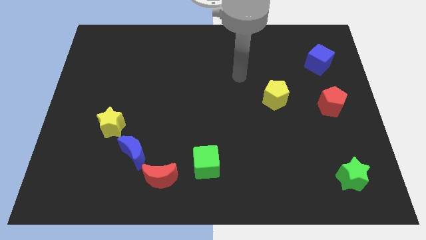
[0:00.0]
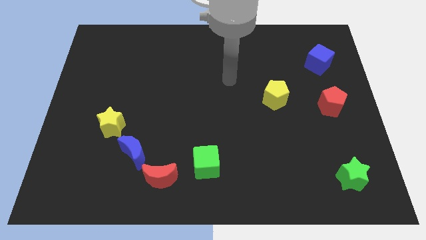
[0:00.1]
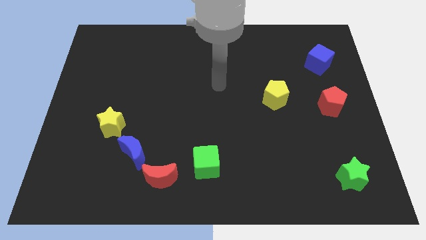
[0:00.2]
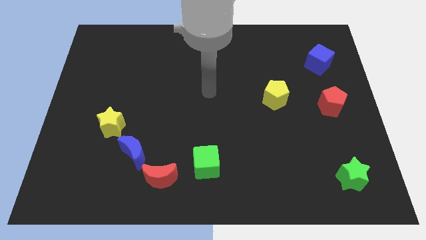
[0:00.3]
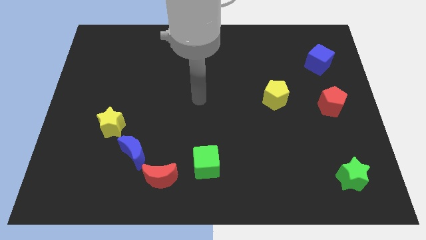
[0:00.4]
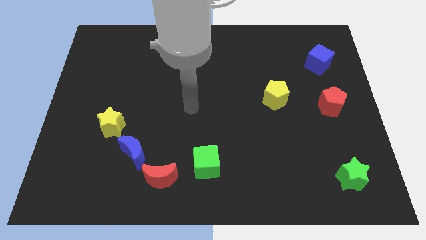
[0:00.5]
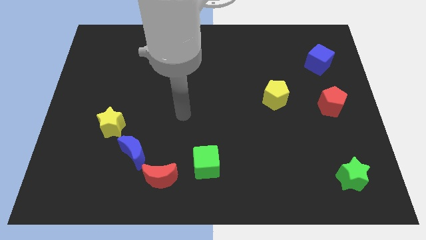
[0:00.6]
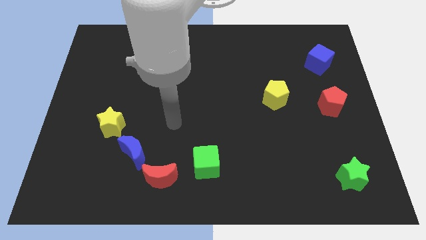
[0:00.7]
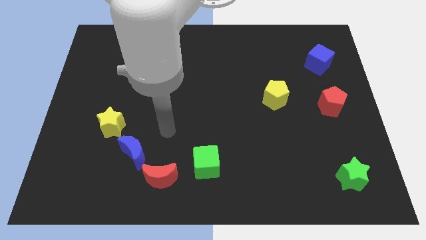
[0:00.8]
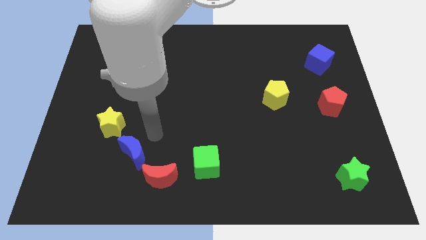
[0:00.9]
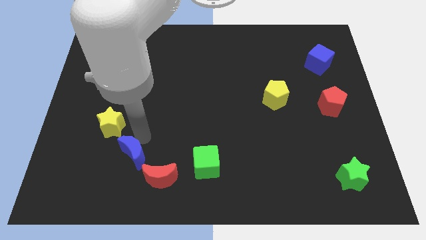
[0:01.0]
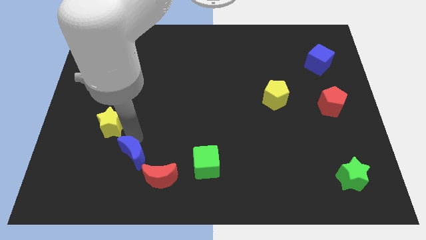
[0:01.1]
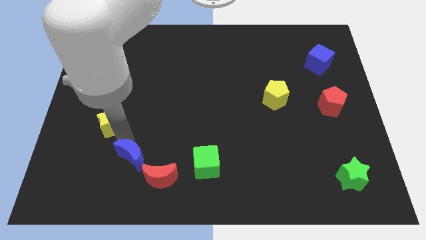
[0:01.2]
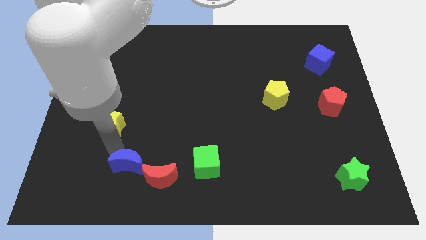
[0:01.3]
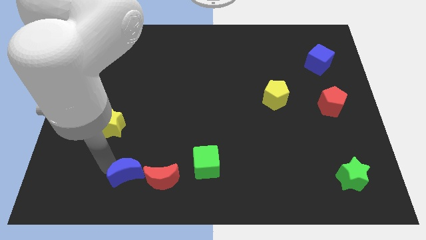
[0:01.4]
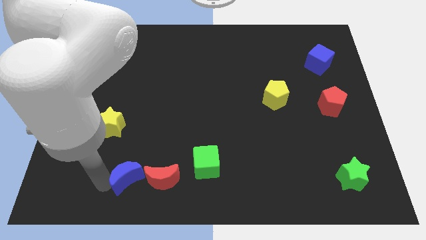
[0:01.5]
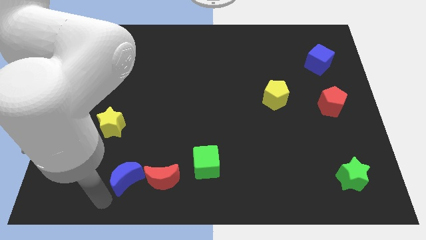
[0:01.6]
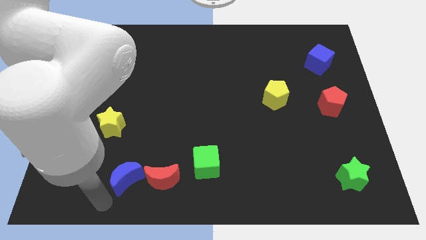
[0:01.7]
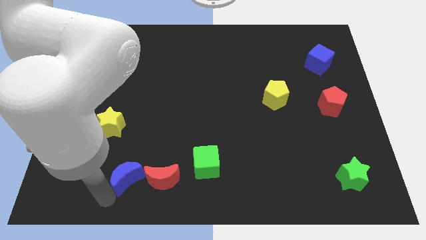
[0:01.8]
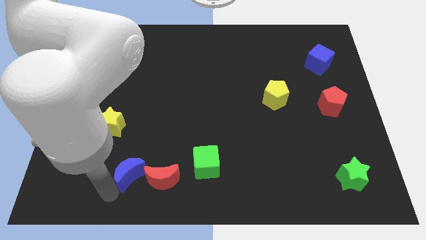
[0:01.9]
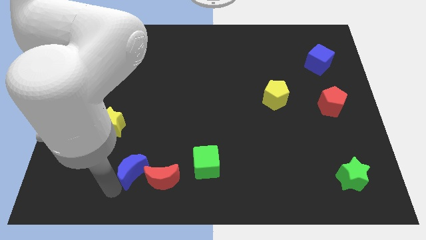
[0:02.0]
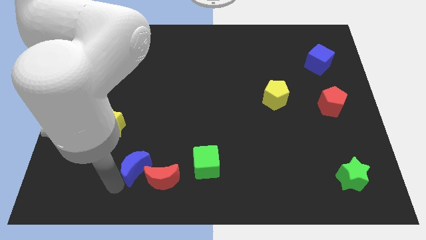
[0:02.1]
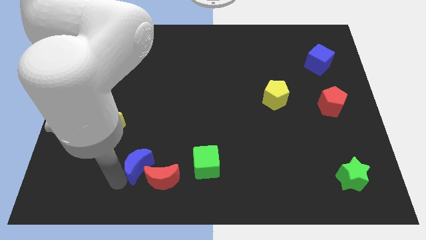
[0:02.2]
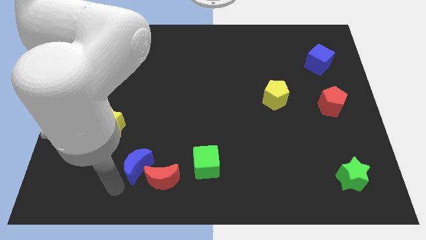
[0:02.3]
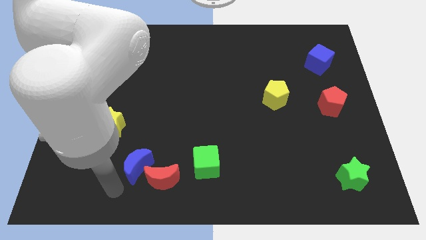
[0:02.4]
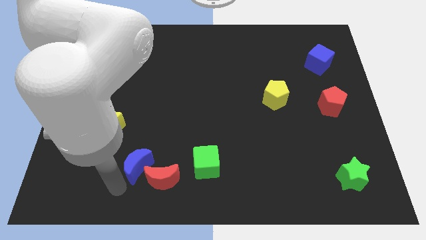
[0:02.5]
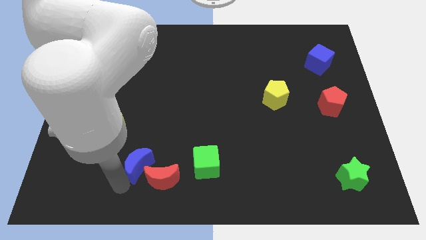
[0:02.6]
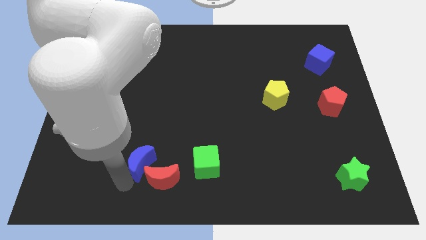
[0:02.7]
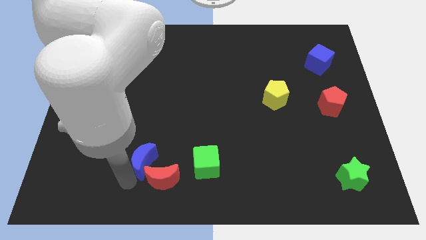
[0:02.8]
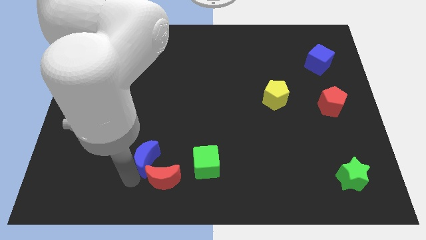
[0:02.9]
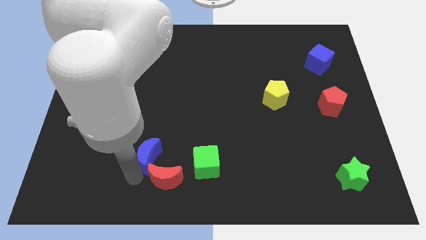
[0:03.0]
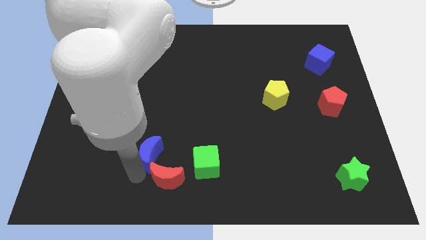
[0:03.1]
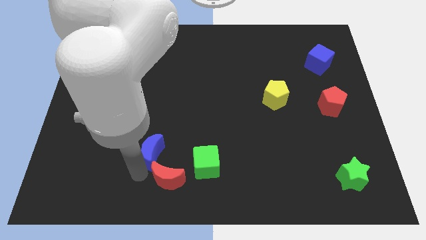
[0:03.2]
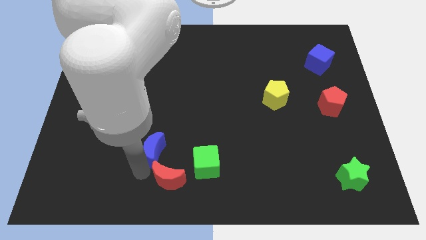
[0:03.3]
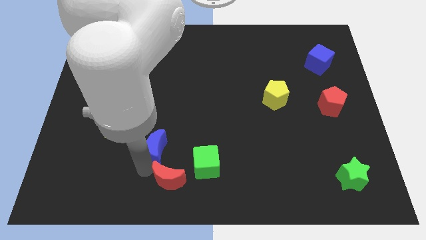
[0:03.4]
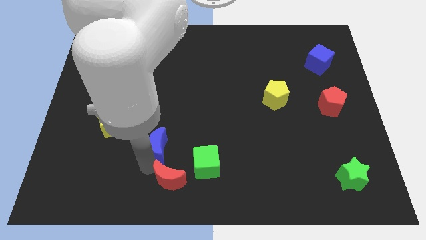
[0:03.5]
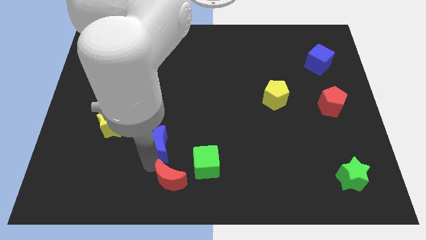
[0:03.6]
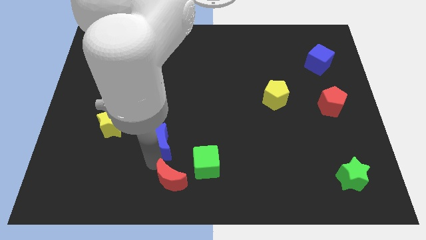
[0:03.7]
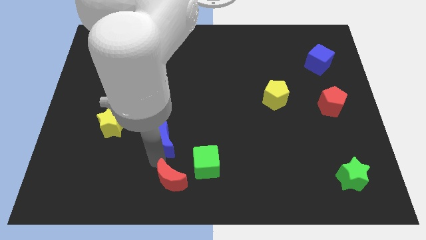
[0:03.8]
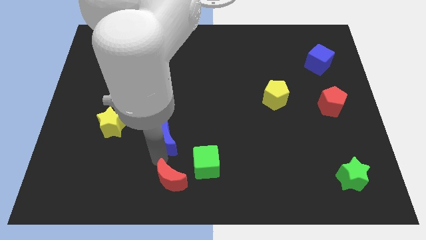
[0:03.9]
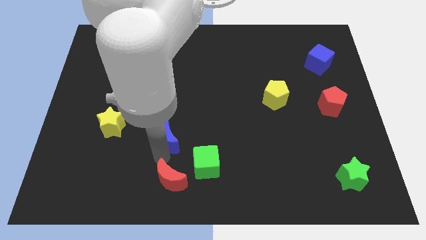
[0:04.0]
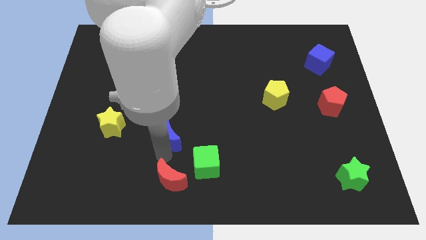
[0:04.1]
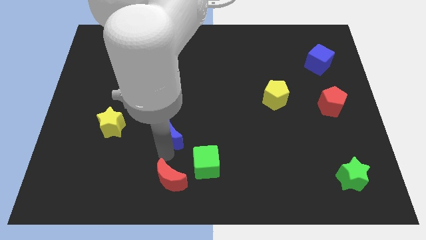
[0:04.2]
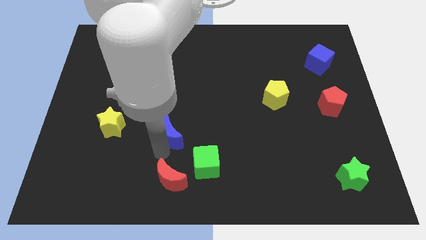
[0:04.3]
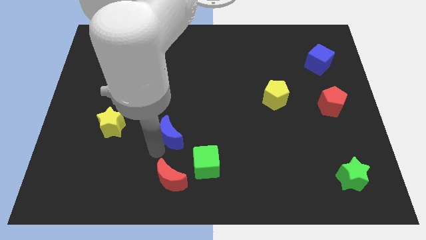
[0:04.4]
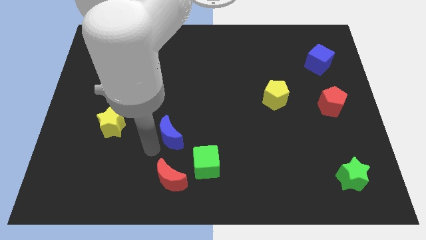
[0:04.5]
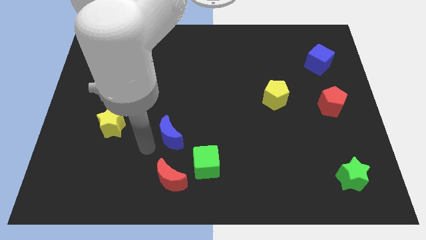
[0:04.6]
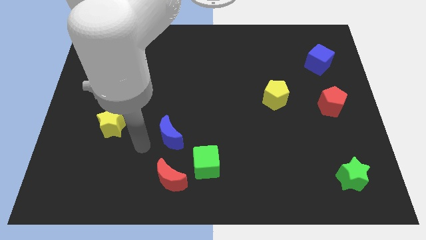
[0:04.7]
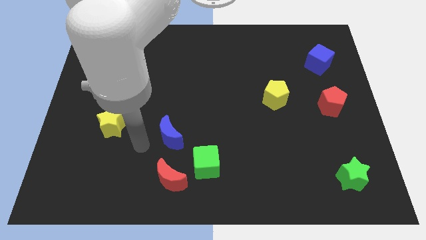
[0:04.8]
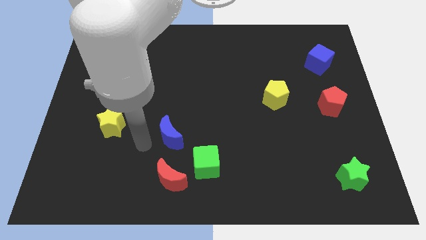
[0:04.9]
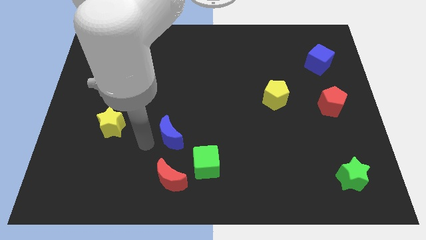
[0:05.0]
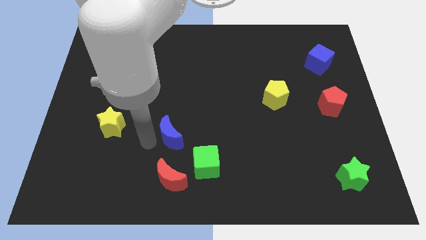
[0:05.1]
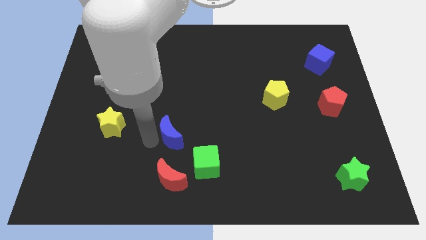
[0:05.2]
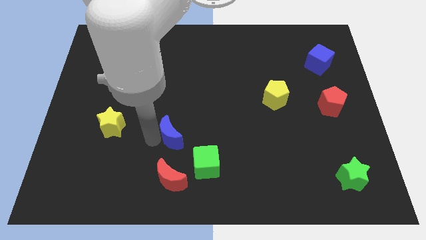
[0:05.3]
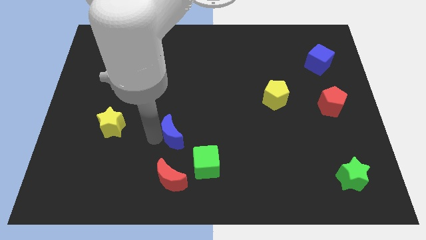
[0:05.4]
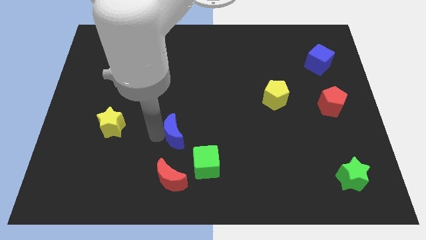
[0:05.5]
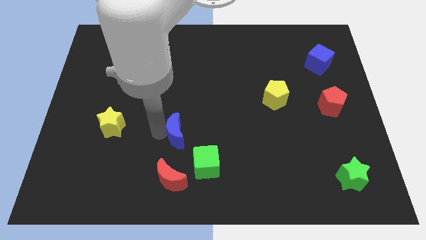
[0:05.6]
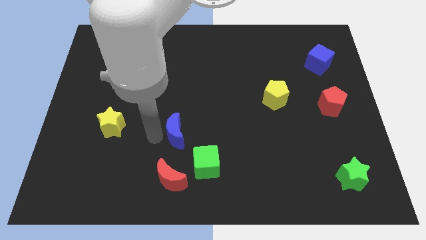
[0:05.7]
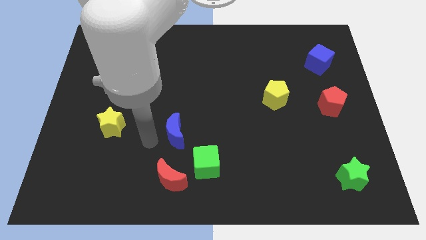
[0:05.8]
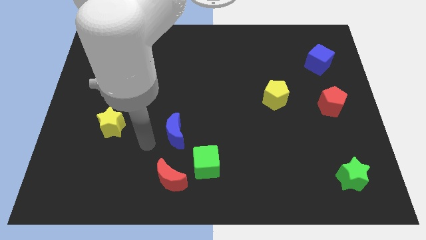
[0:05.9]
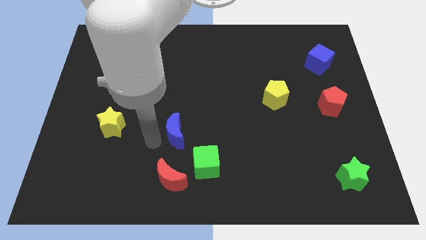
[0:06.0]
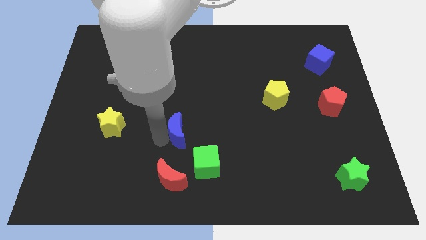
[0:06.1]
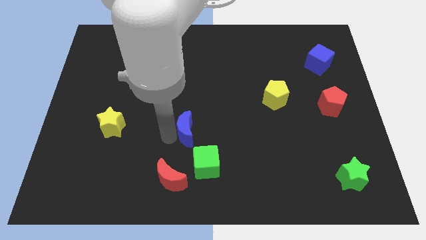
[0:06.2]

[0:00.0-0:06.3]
push the blue moon to the top of the green cube

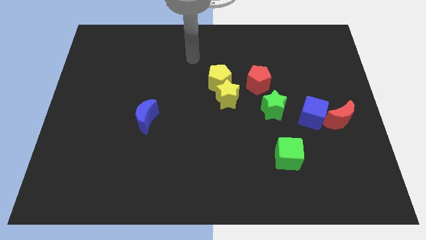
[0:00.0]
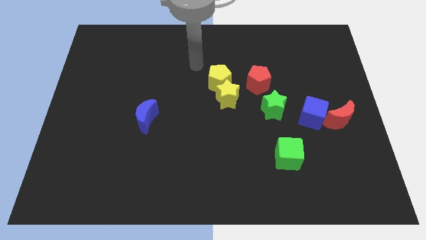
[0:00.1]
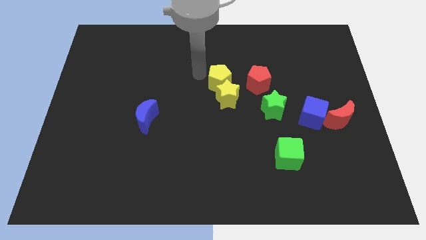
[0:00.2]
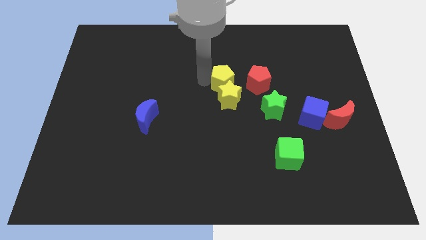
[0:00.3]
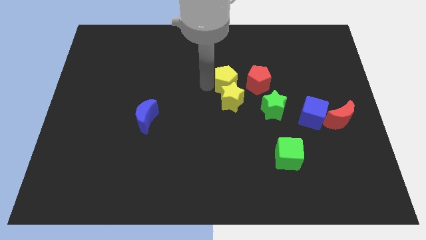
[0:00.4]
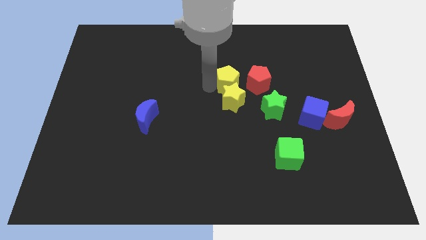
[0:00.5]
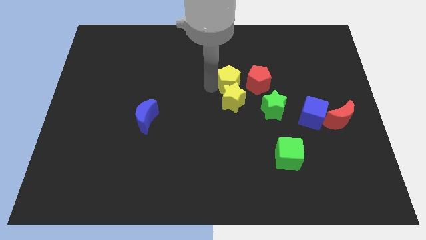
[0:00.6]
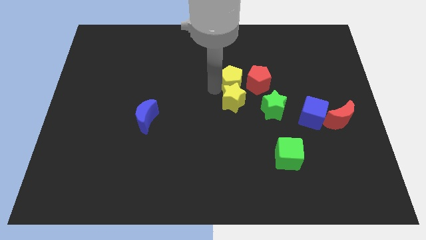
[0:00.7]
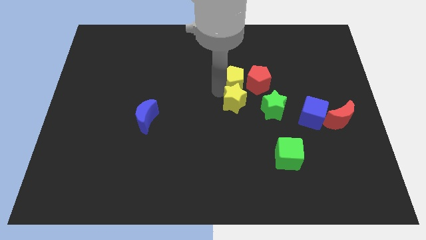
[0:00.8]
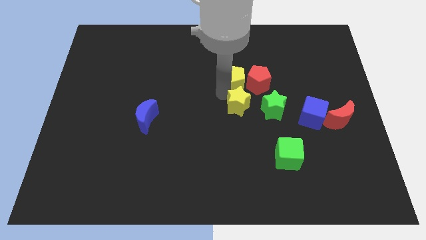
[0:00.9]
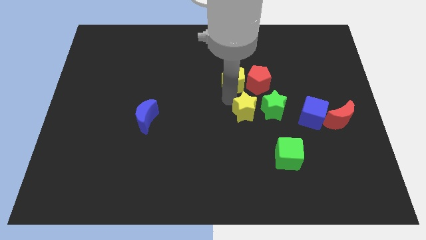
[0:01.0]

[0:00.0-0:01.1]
move the yellow star to the left of the blue cube

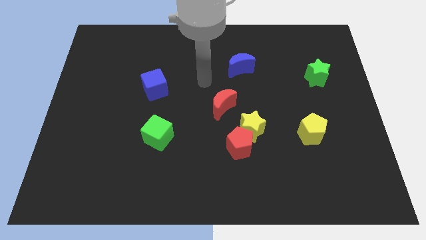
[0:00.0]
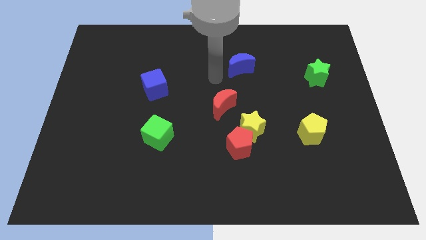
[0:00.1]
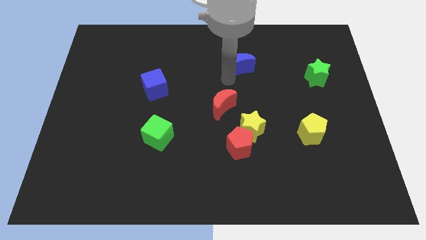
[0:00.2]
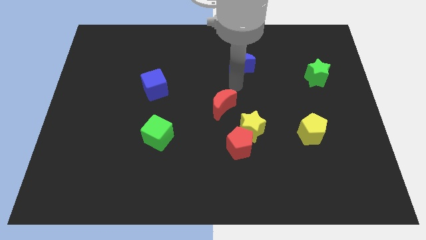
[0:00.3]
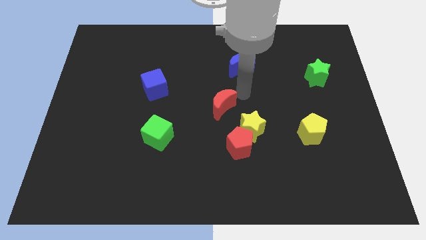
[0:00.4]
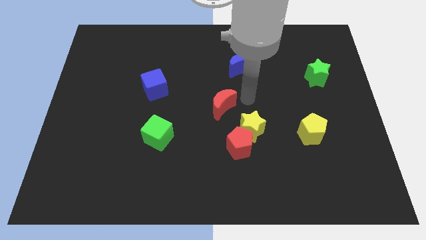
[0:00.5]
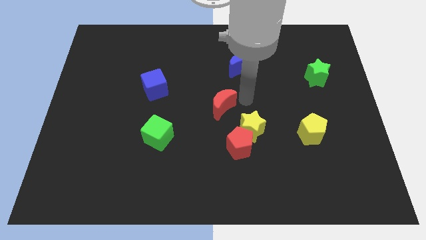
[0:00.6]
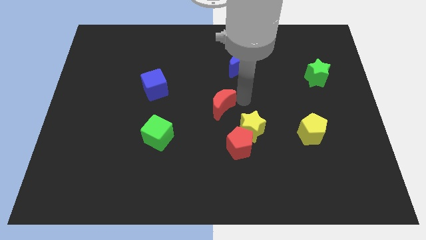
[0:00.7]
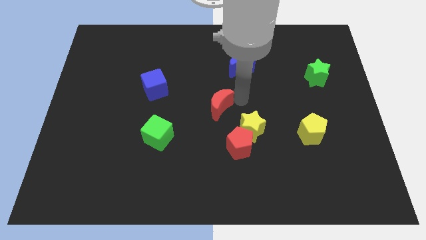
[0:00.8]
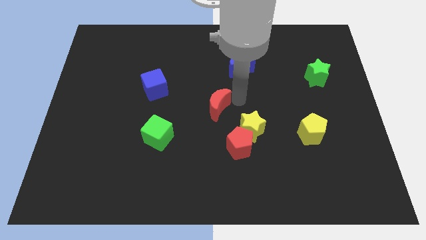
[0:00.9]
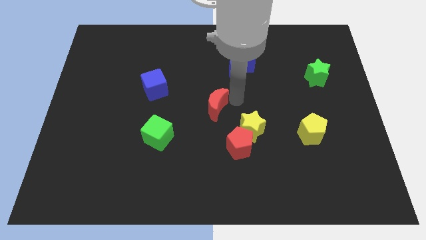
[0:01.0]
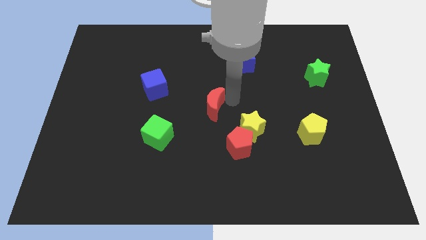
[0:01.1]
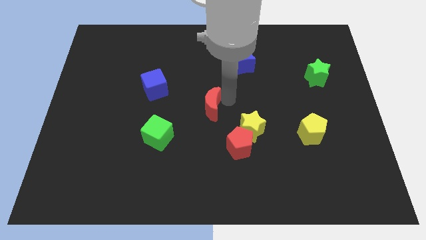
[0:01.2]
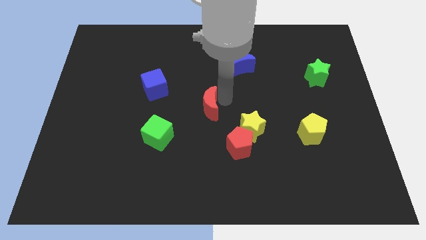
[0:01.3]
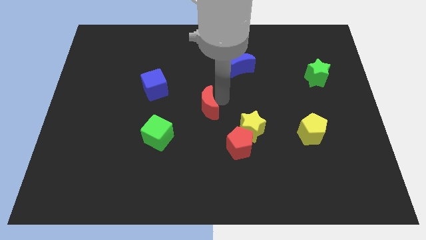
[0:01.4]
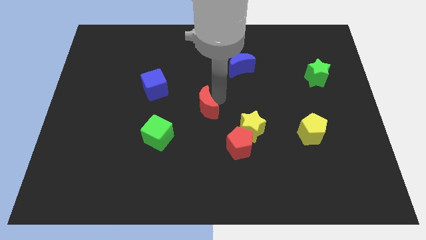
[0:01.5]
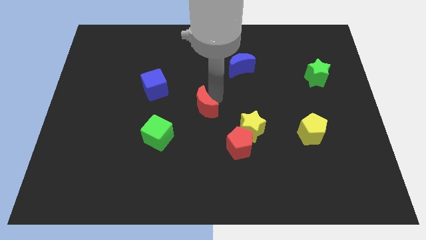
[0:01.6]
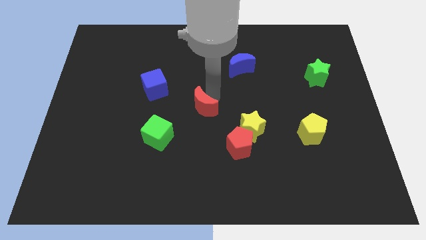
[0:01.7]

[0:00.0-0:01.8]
slide the red moon diagonally up and to the right of the green cube
